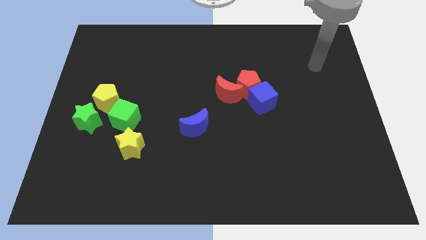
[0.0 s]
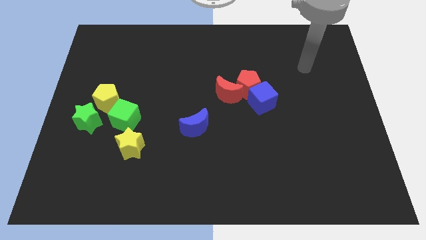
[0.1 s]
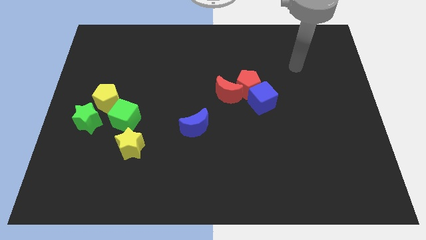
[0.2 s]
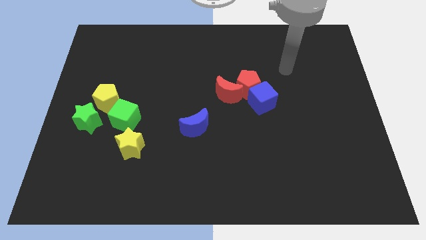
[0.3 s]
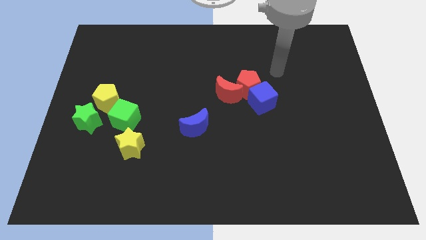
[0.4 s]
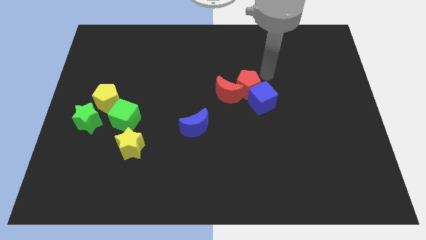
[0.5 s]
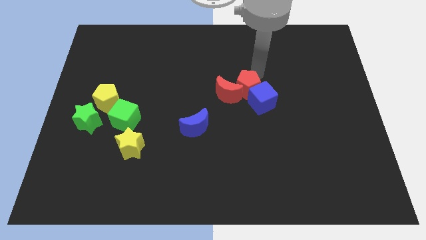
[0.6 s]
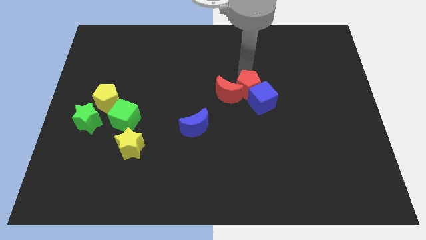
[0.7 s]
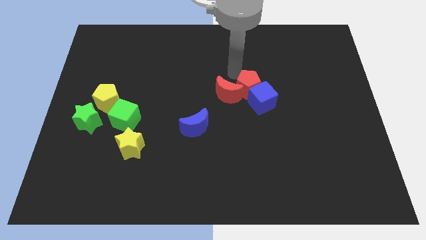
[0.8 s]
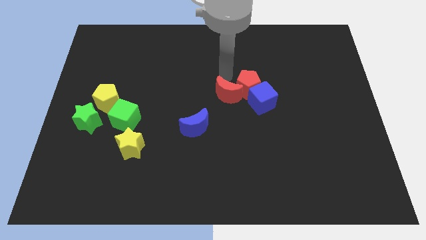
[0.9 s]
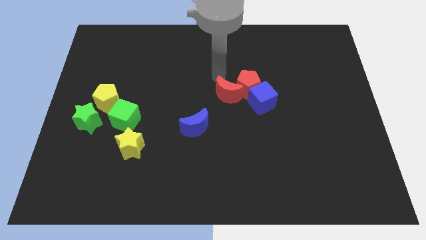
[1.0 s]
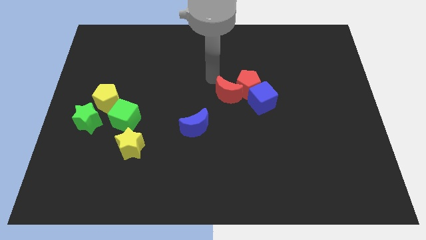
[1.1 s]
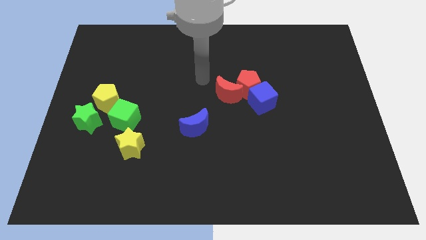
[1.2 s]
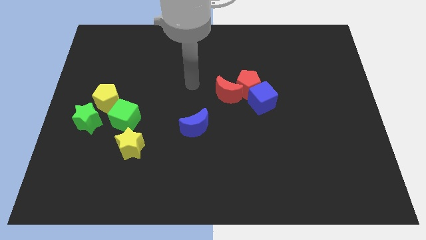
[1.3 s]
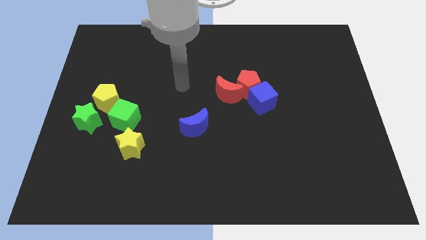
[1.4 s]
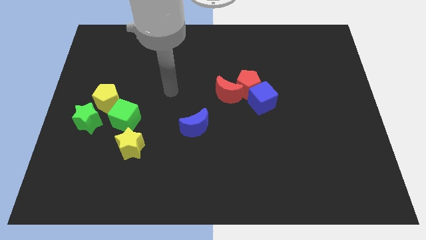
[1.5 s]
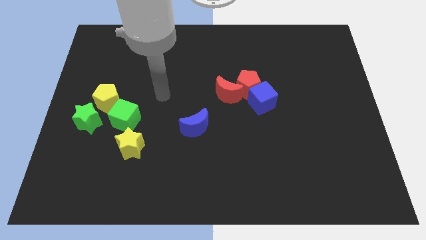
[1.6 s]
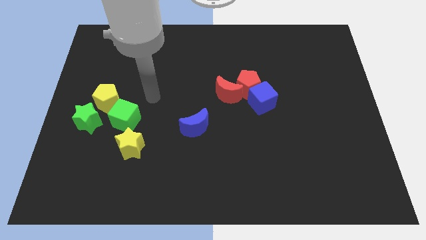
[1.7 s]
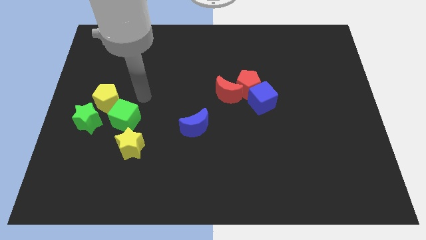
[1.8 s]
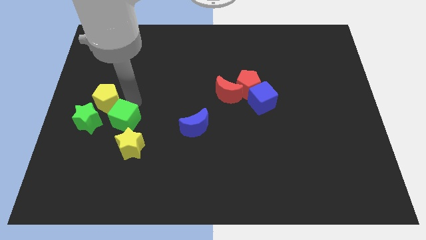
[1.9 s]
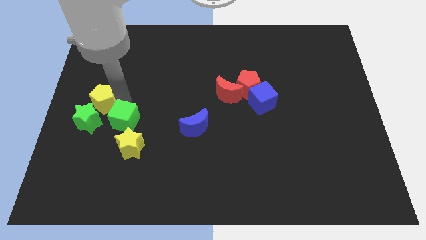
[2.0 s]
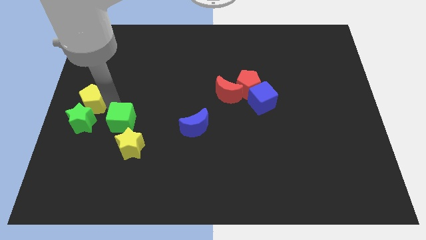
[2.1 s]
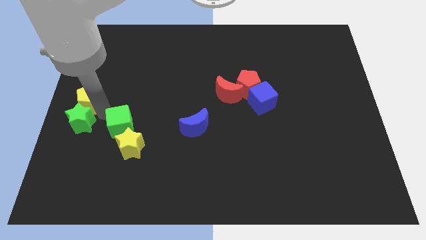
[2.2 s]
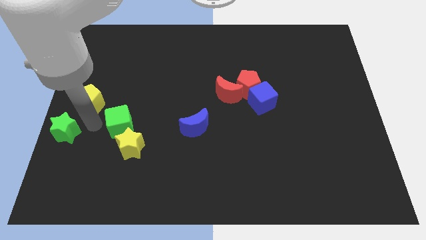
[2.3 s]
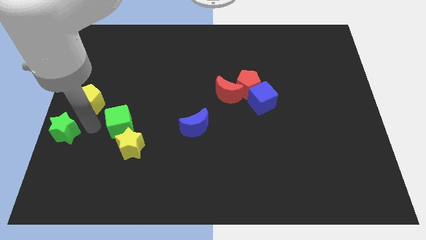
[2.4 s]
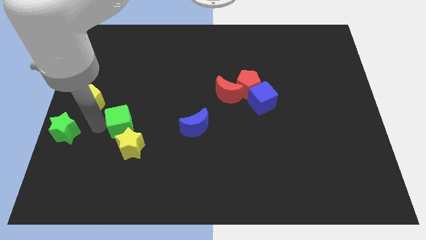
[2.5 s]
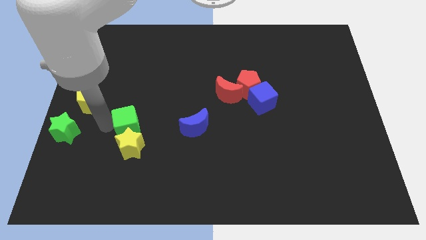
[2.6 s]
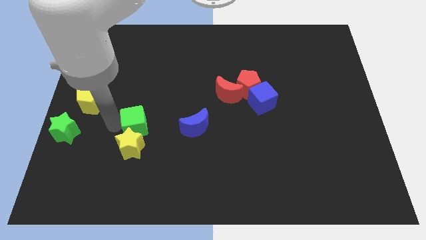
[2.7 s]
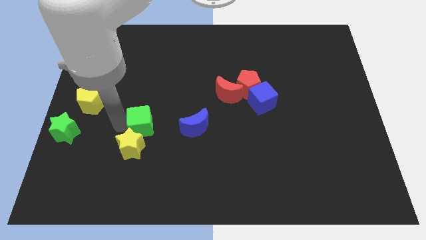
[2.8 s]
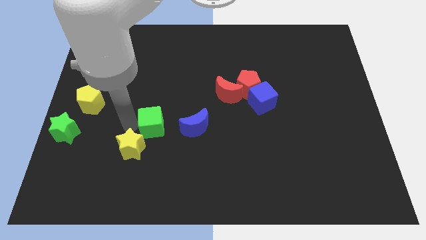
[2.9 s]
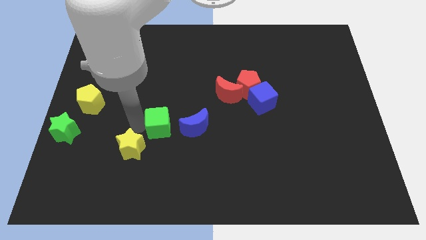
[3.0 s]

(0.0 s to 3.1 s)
slide the green cube slightly right

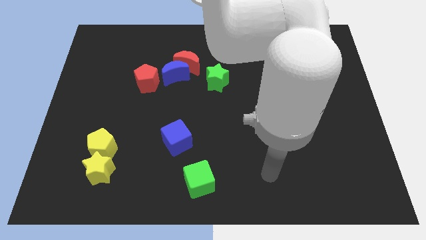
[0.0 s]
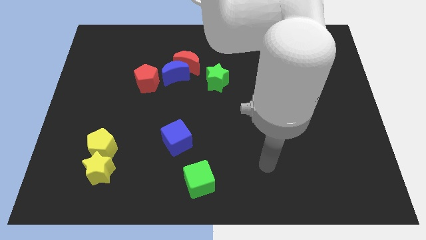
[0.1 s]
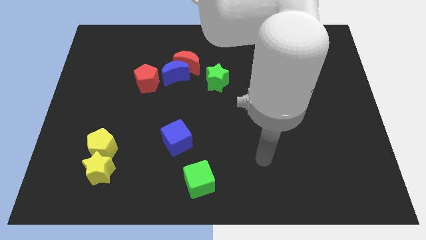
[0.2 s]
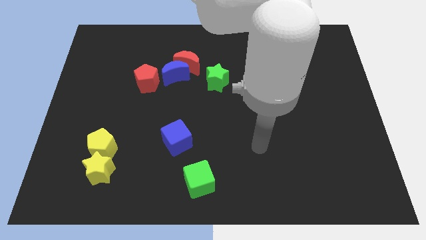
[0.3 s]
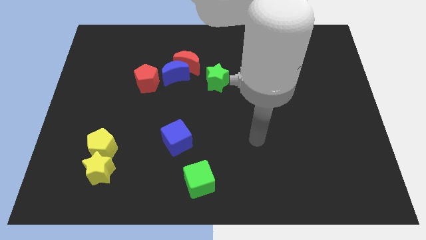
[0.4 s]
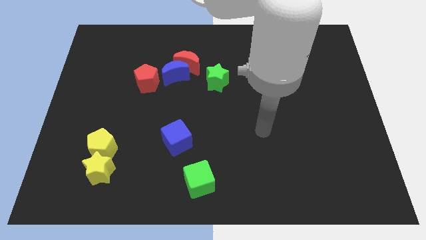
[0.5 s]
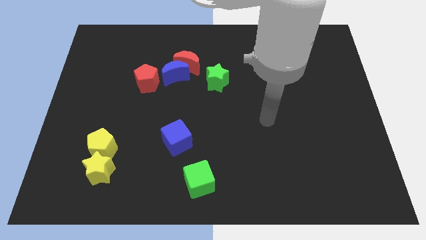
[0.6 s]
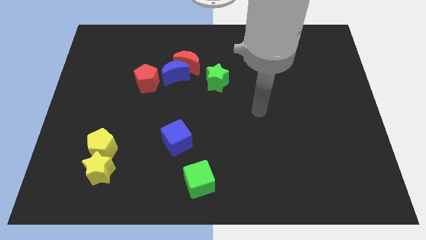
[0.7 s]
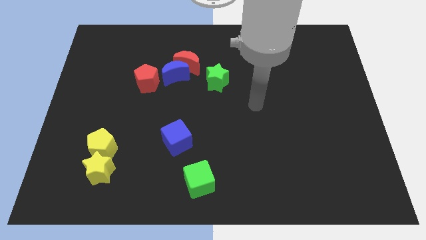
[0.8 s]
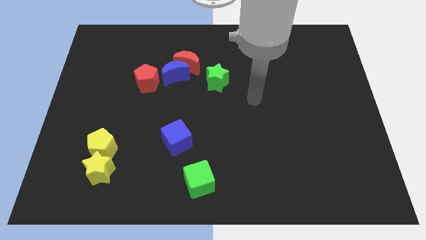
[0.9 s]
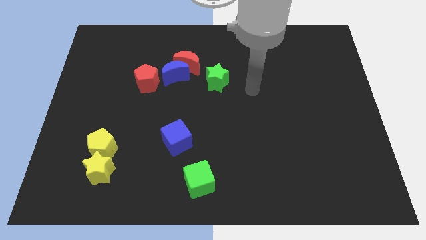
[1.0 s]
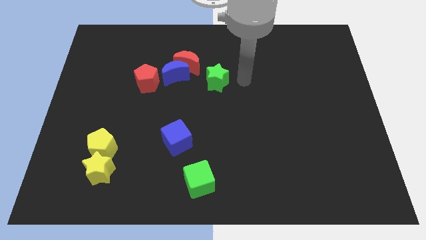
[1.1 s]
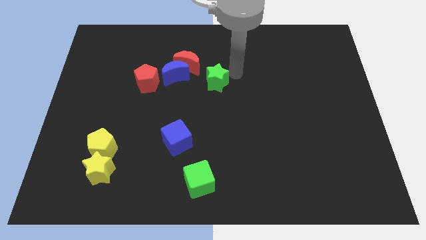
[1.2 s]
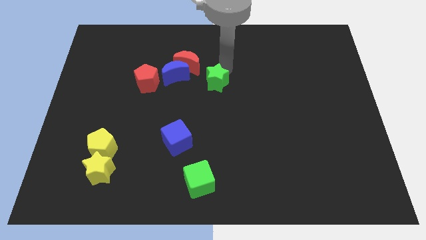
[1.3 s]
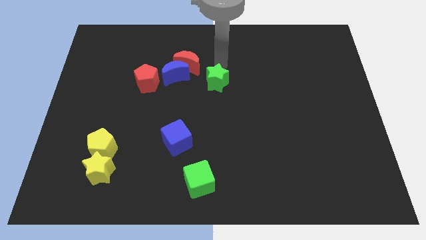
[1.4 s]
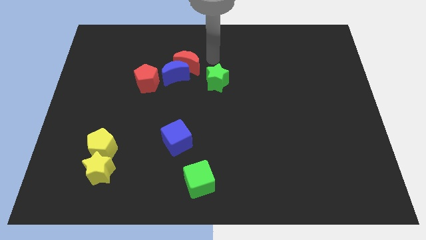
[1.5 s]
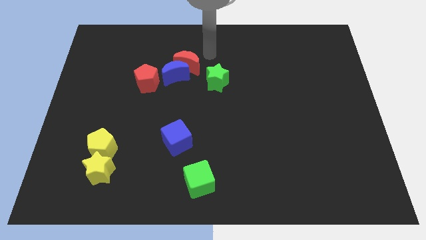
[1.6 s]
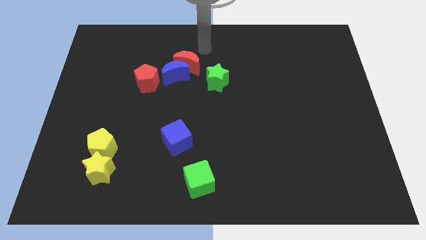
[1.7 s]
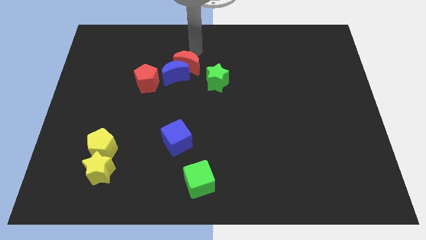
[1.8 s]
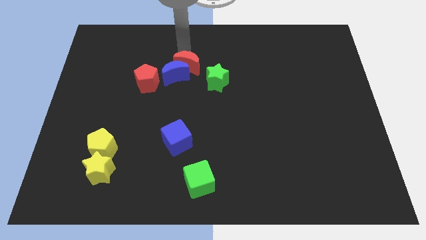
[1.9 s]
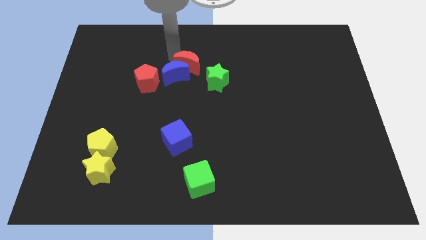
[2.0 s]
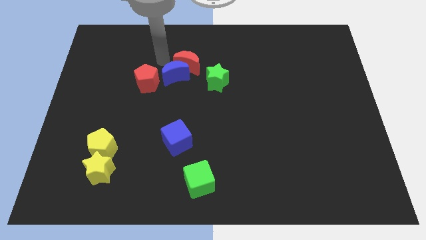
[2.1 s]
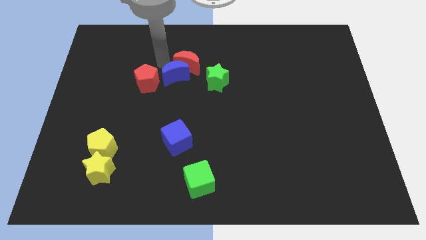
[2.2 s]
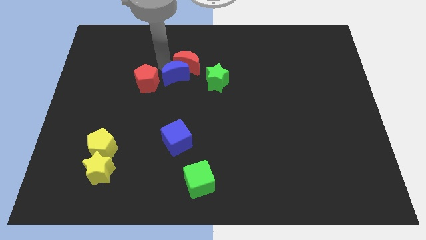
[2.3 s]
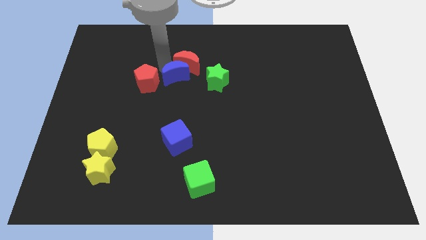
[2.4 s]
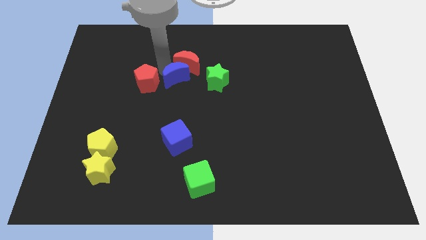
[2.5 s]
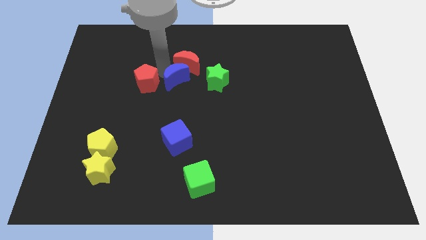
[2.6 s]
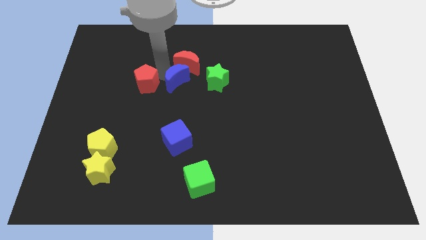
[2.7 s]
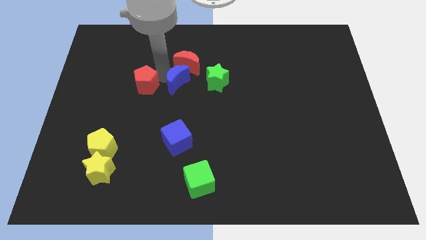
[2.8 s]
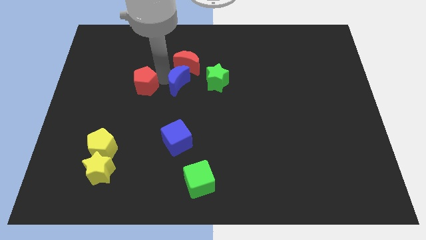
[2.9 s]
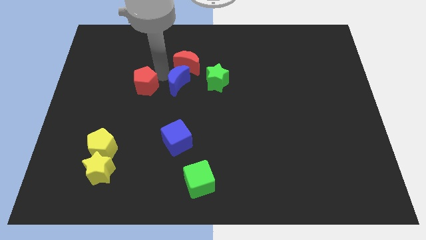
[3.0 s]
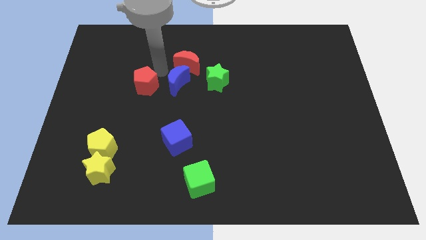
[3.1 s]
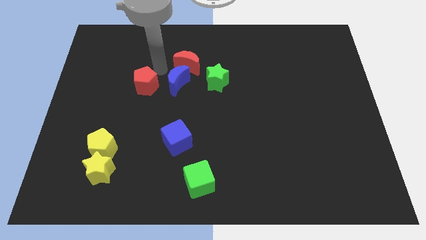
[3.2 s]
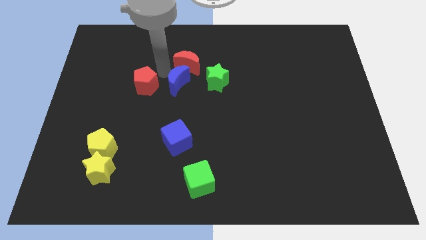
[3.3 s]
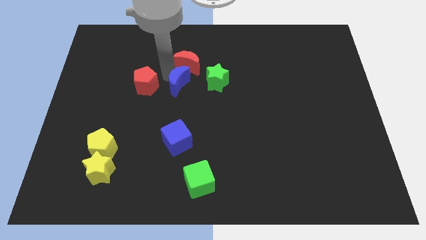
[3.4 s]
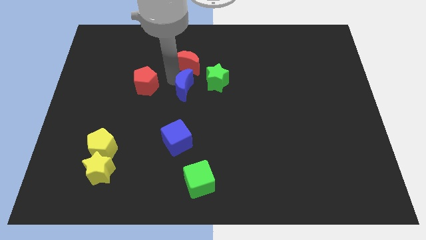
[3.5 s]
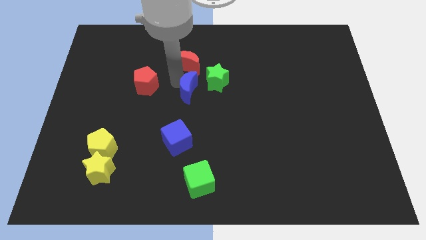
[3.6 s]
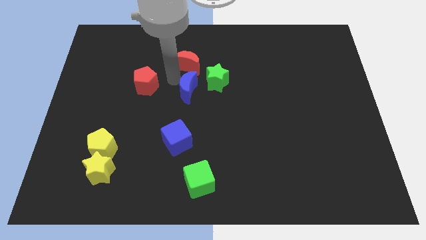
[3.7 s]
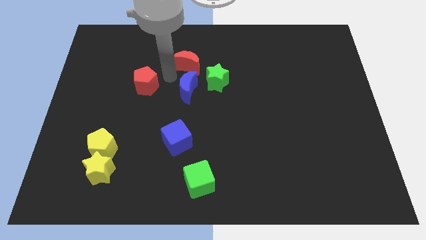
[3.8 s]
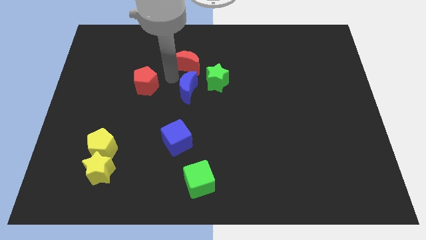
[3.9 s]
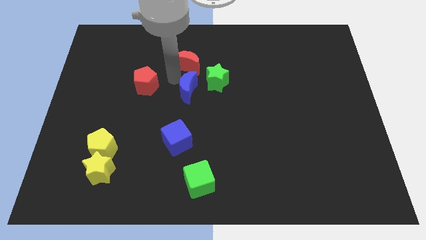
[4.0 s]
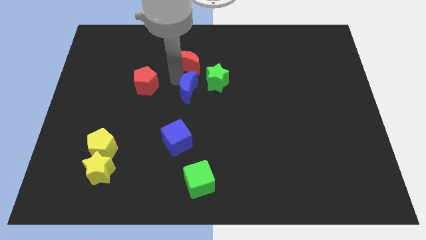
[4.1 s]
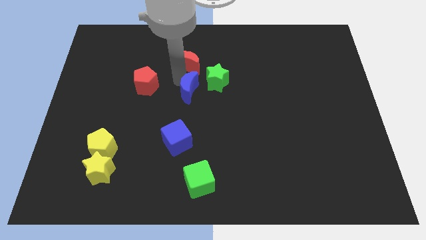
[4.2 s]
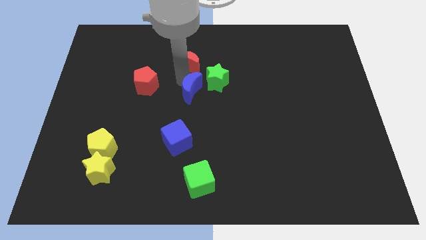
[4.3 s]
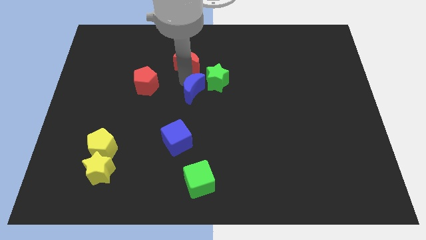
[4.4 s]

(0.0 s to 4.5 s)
slightly move the blue moon diagonally downwards and right

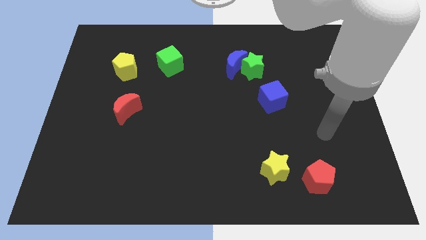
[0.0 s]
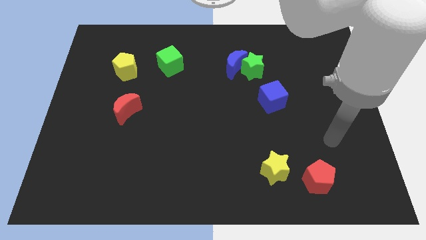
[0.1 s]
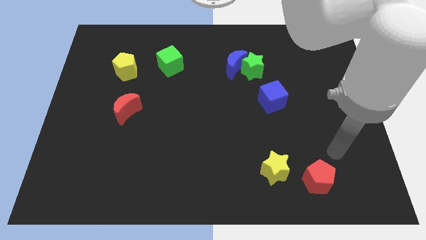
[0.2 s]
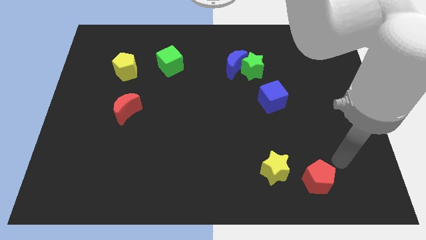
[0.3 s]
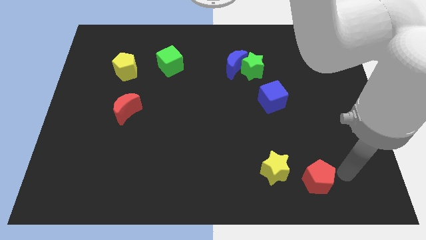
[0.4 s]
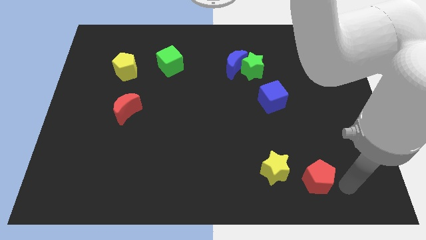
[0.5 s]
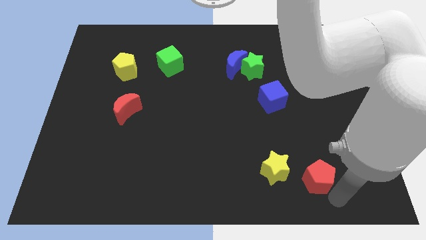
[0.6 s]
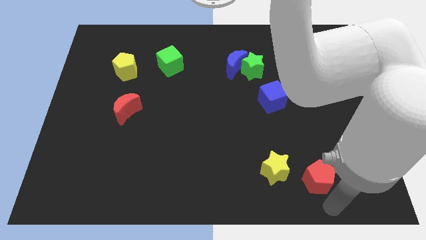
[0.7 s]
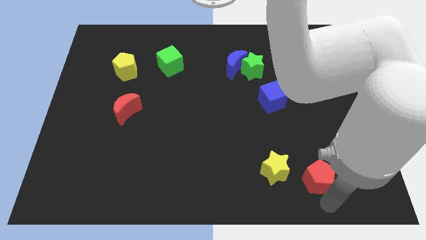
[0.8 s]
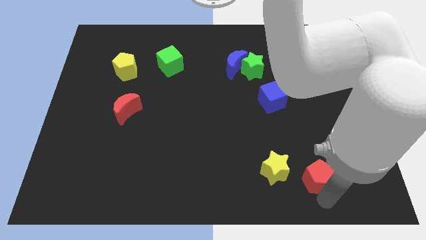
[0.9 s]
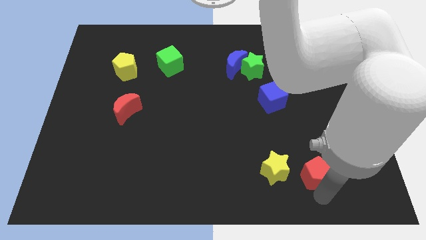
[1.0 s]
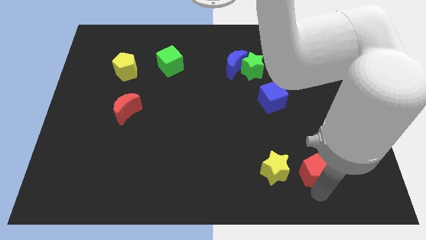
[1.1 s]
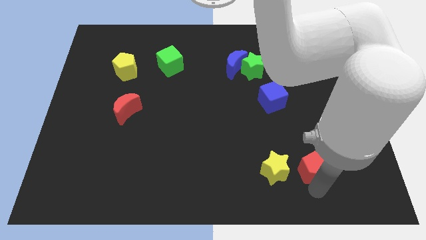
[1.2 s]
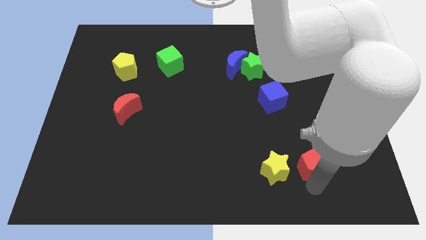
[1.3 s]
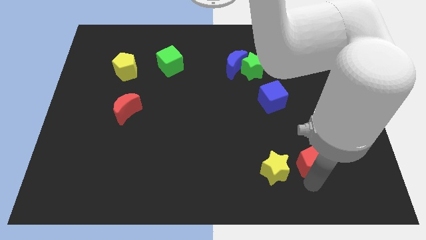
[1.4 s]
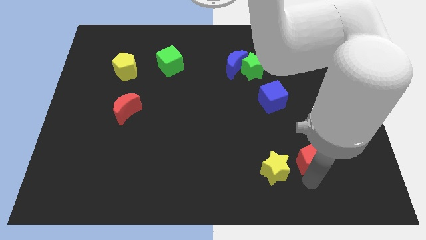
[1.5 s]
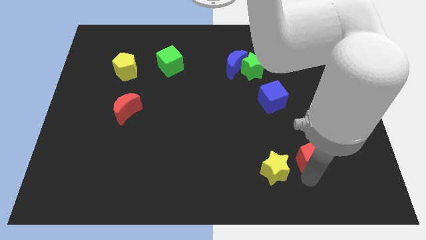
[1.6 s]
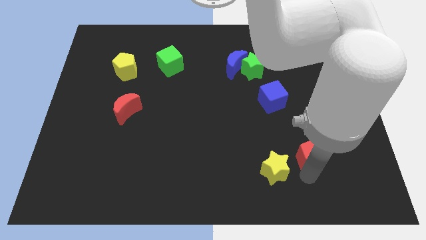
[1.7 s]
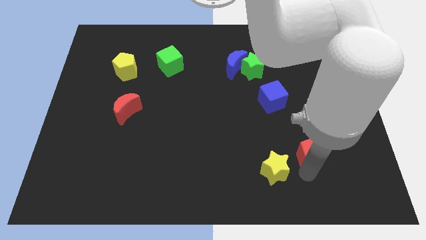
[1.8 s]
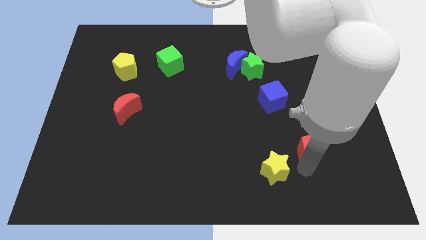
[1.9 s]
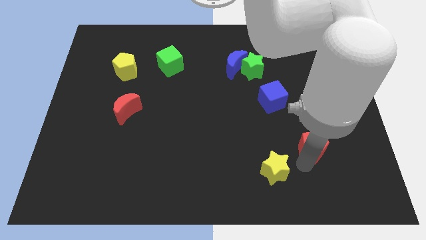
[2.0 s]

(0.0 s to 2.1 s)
push the red pentagon a bit up
